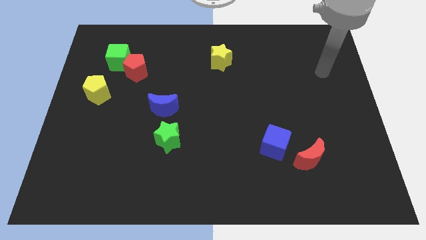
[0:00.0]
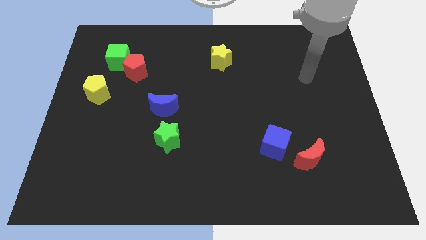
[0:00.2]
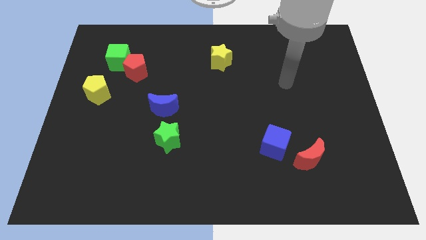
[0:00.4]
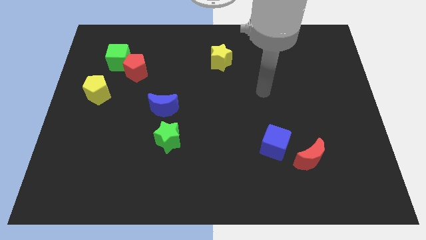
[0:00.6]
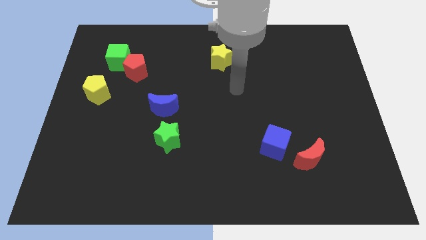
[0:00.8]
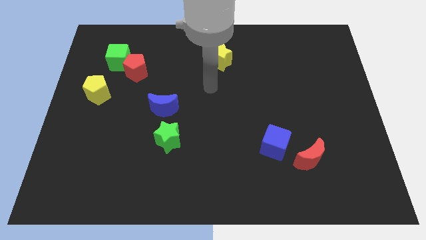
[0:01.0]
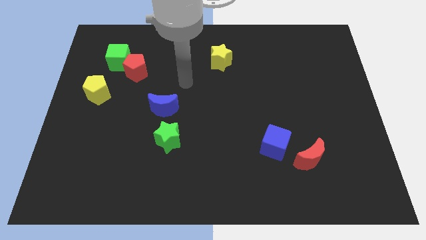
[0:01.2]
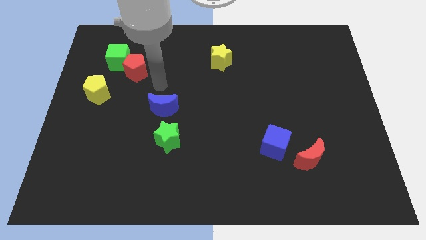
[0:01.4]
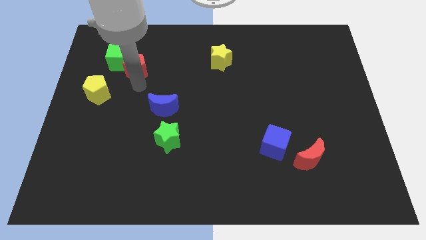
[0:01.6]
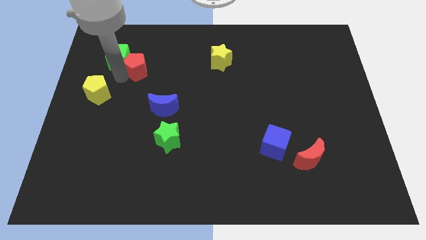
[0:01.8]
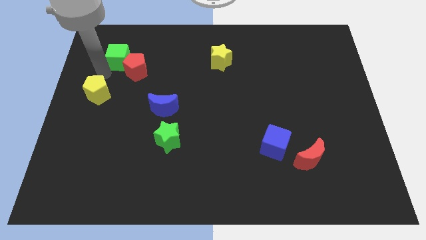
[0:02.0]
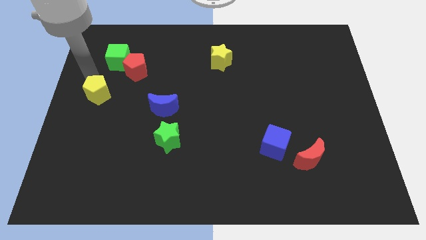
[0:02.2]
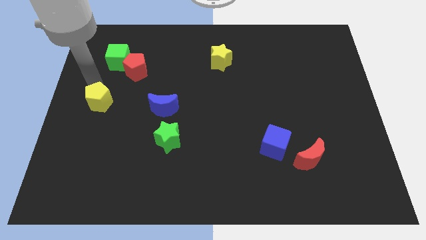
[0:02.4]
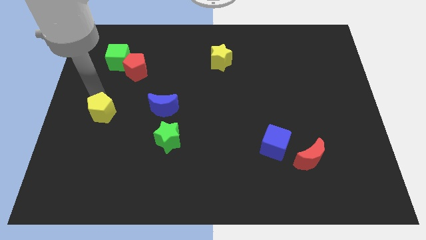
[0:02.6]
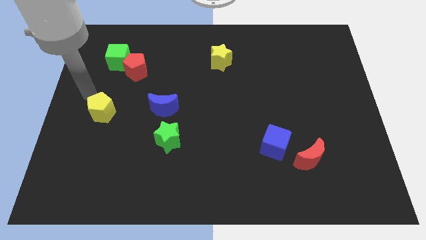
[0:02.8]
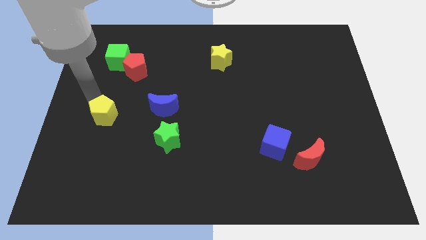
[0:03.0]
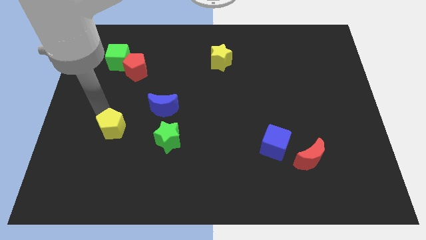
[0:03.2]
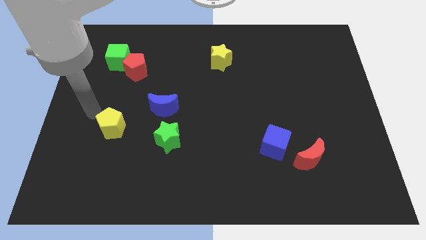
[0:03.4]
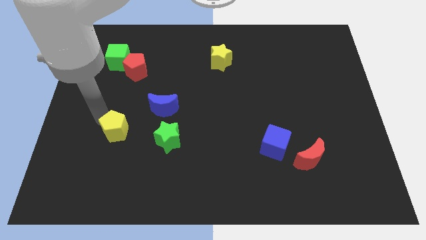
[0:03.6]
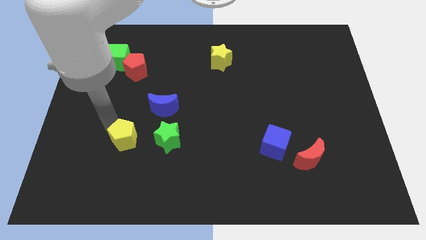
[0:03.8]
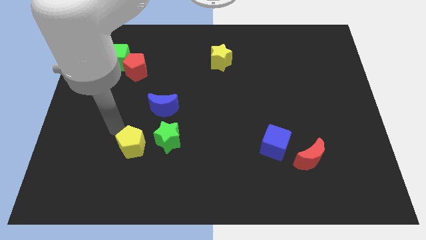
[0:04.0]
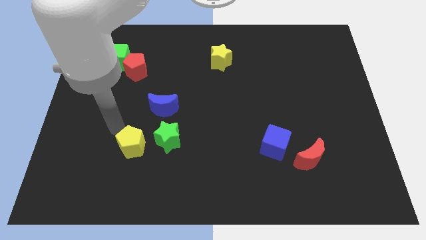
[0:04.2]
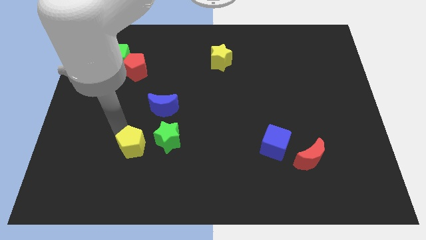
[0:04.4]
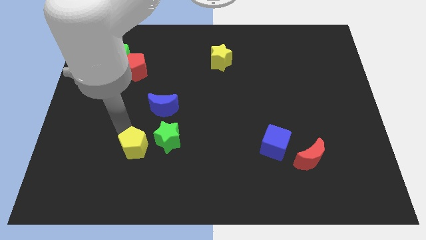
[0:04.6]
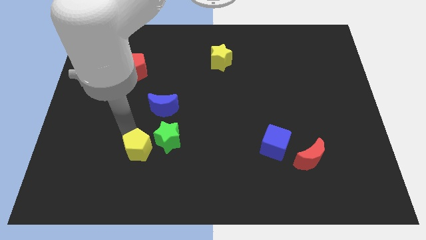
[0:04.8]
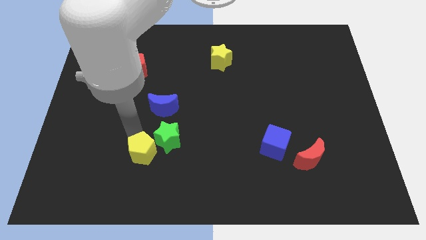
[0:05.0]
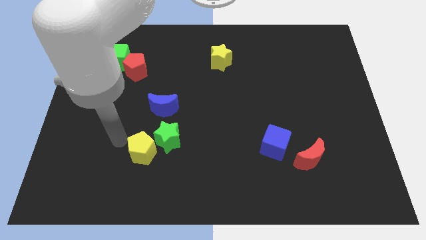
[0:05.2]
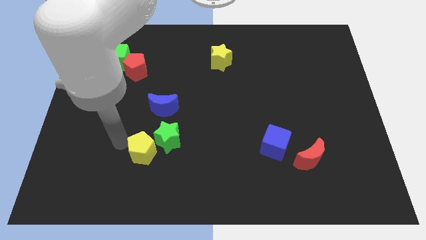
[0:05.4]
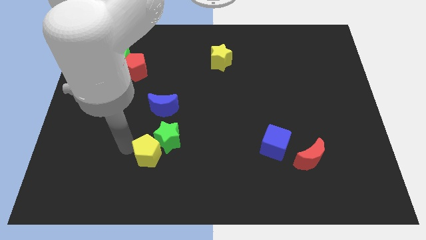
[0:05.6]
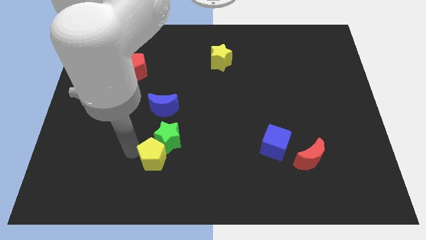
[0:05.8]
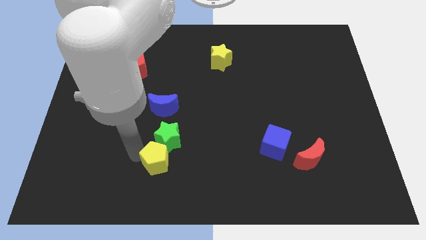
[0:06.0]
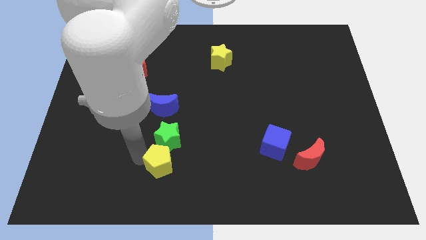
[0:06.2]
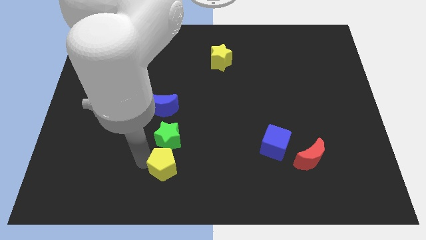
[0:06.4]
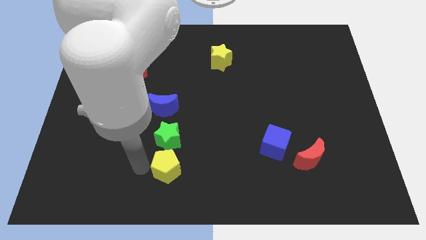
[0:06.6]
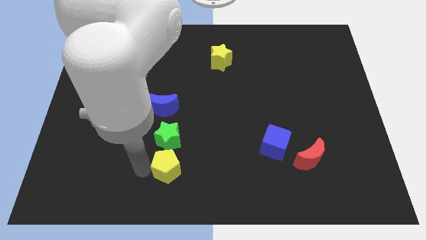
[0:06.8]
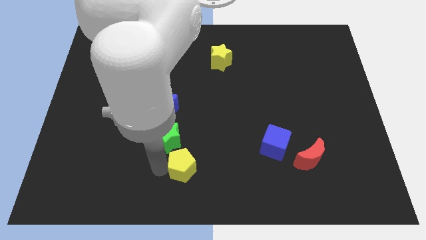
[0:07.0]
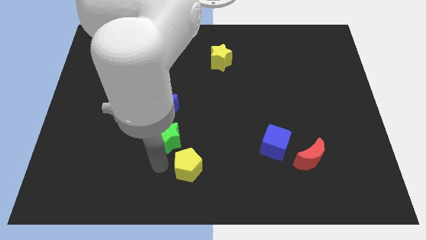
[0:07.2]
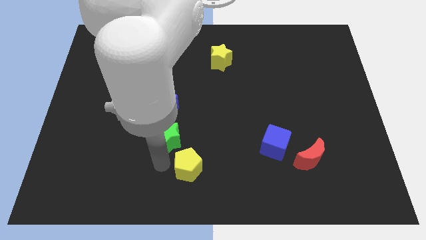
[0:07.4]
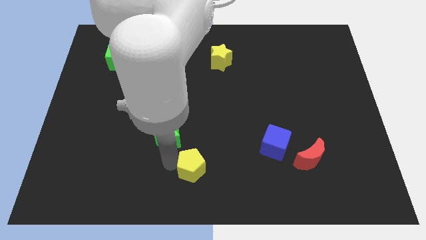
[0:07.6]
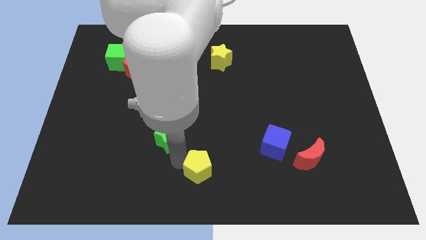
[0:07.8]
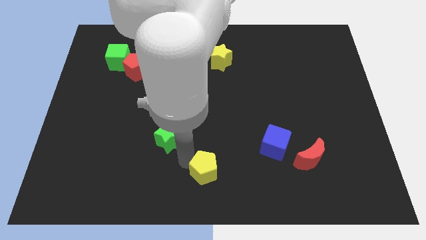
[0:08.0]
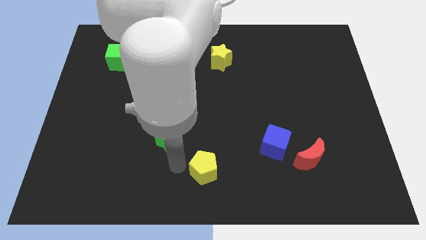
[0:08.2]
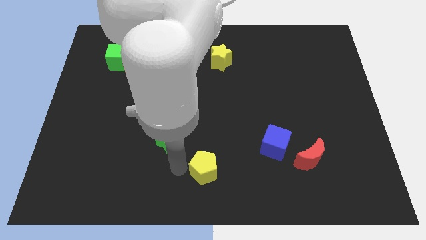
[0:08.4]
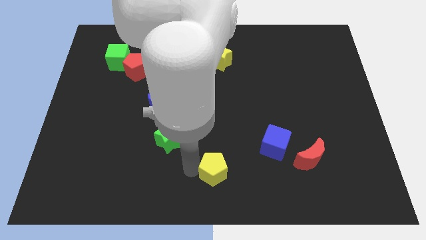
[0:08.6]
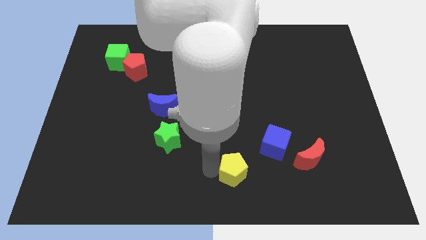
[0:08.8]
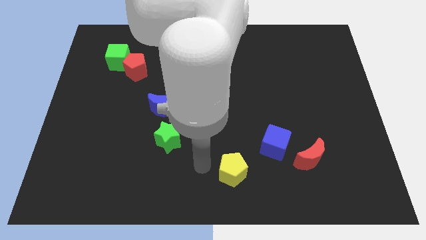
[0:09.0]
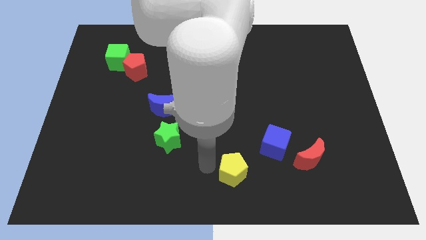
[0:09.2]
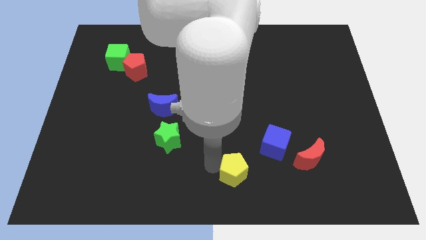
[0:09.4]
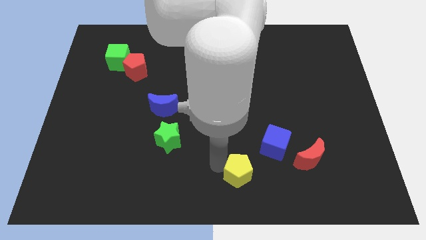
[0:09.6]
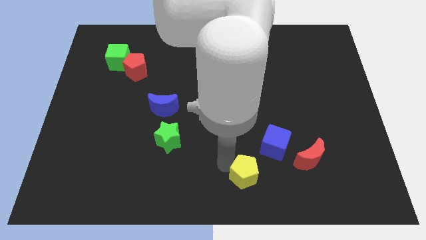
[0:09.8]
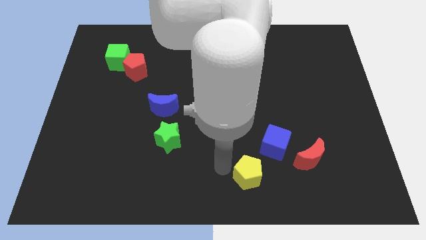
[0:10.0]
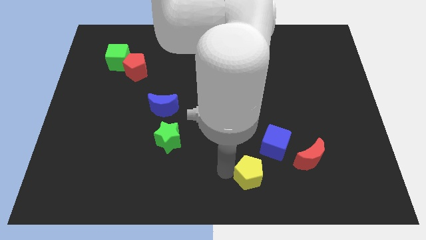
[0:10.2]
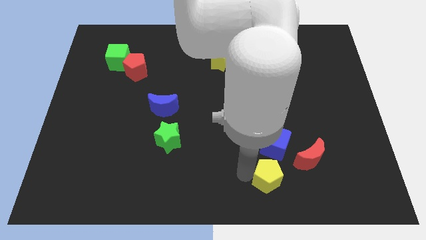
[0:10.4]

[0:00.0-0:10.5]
push the yellow pentagon to the bottom left of the red moon
